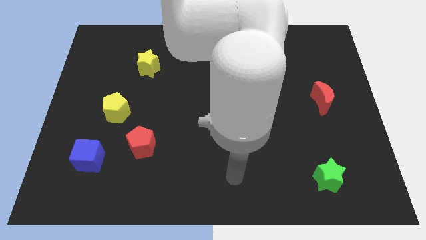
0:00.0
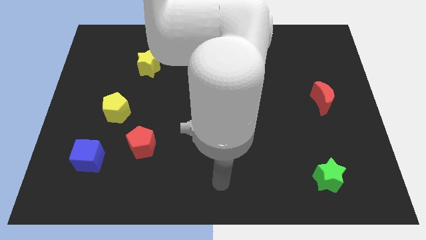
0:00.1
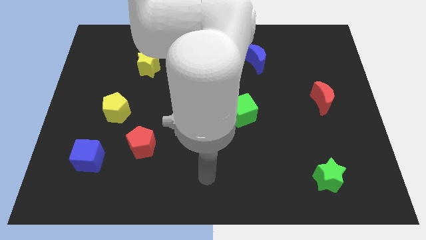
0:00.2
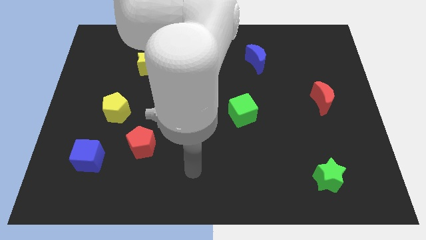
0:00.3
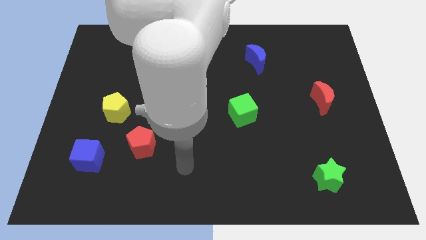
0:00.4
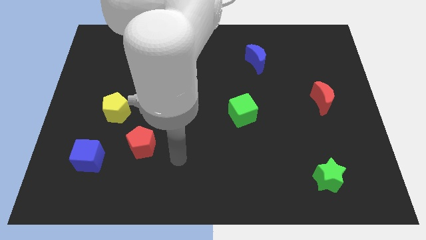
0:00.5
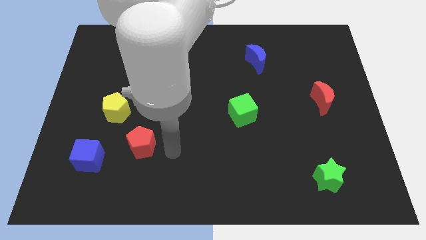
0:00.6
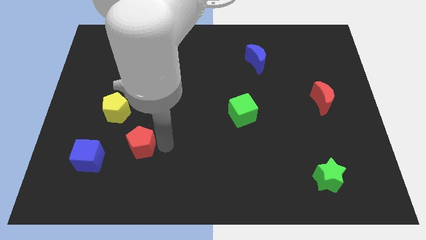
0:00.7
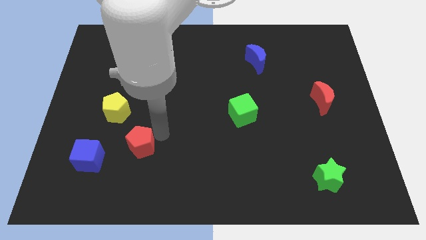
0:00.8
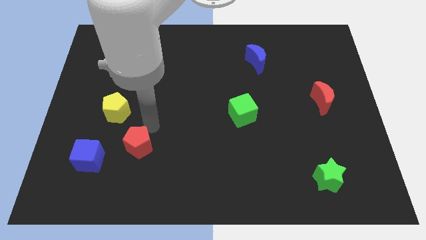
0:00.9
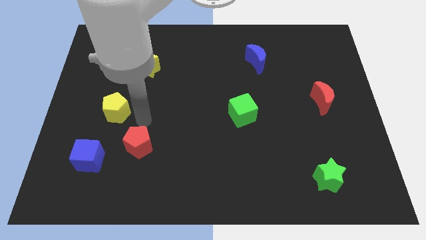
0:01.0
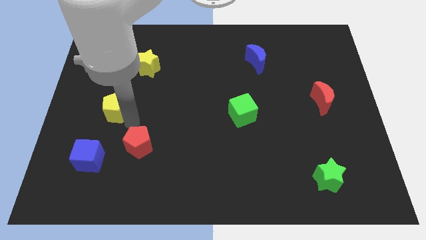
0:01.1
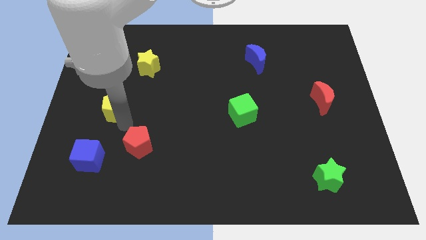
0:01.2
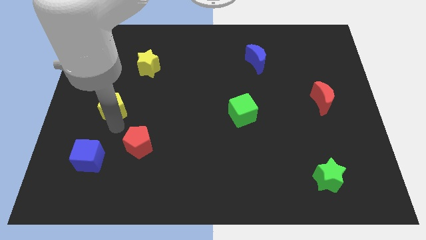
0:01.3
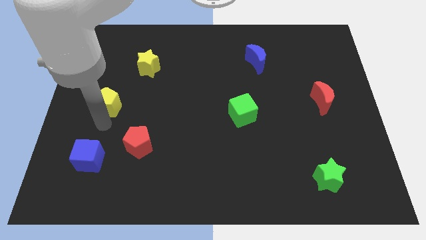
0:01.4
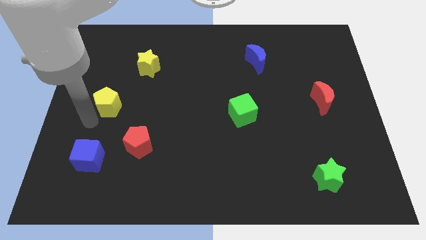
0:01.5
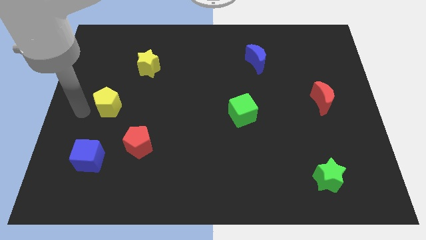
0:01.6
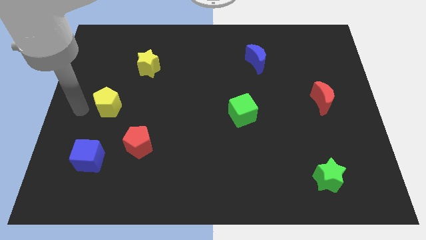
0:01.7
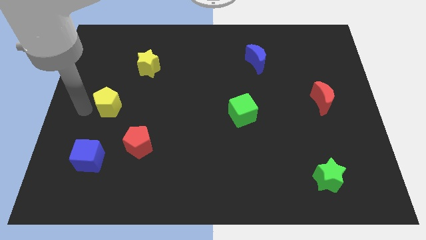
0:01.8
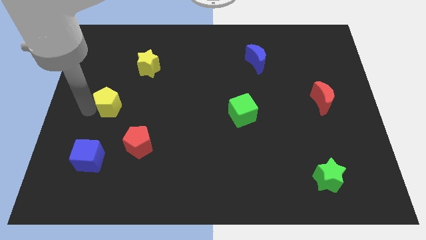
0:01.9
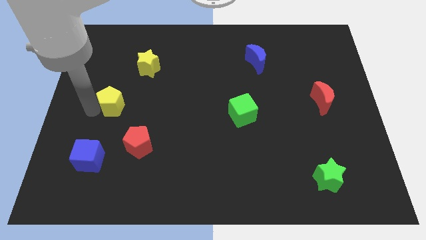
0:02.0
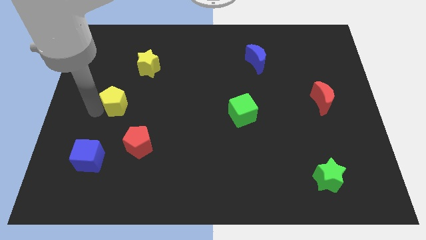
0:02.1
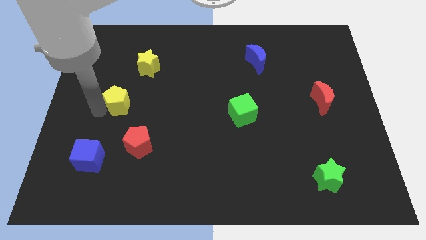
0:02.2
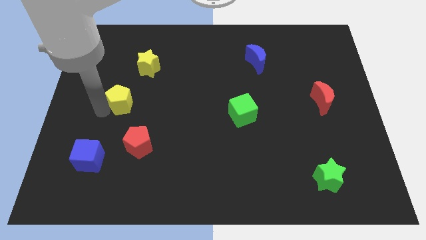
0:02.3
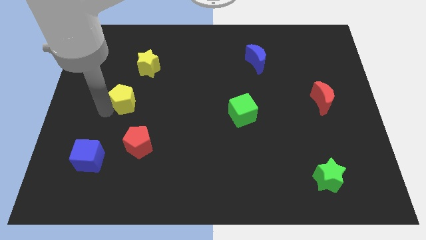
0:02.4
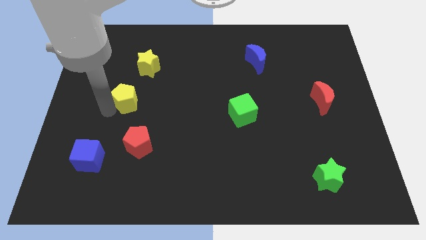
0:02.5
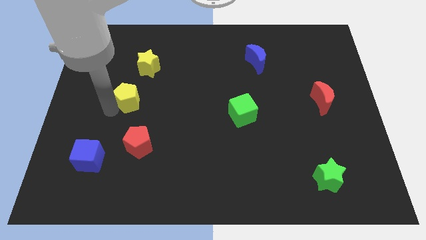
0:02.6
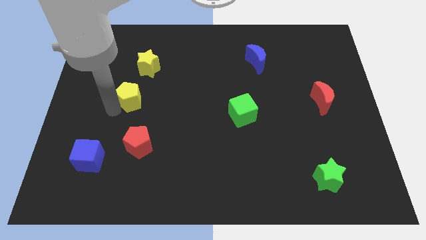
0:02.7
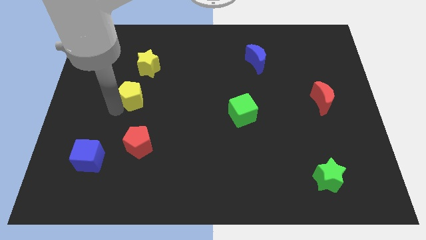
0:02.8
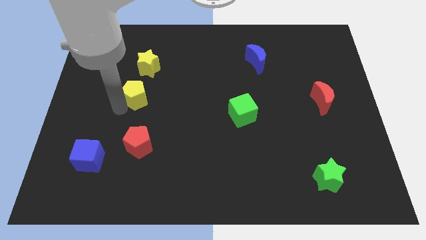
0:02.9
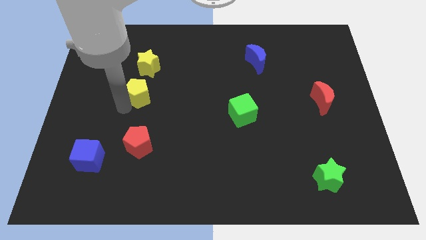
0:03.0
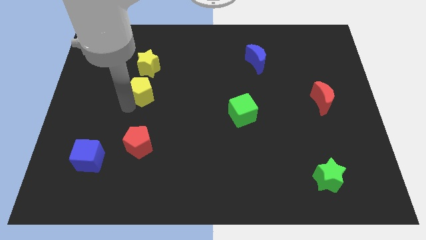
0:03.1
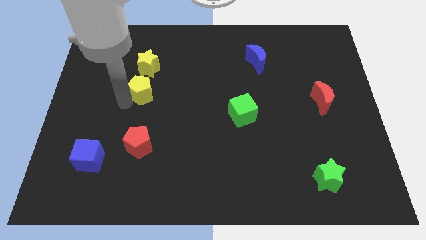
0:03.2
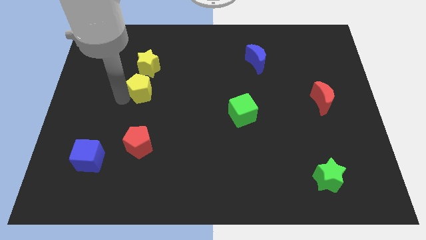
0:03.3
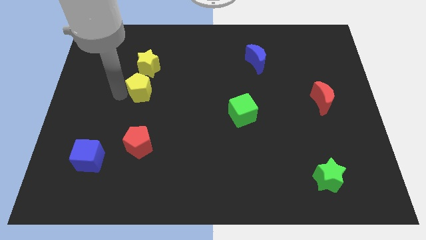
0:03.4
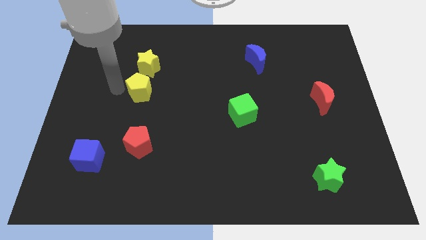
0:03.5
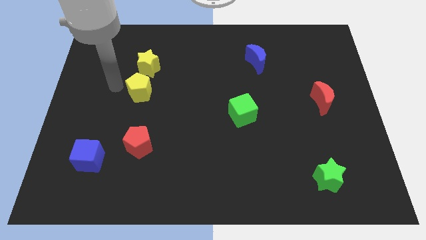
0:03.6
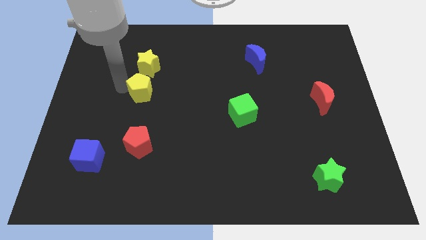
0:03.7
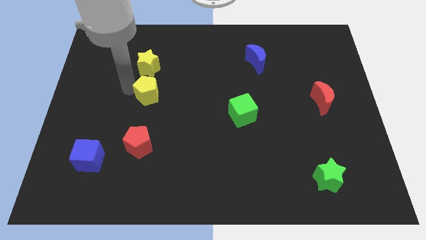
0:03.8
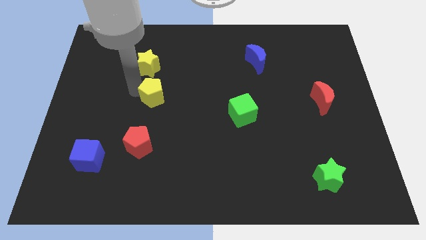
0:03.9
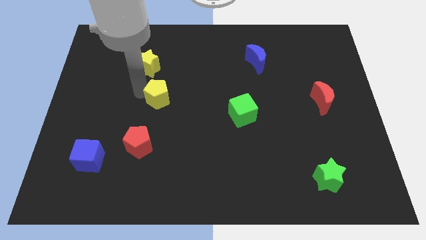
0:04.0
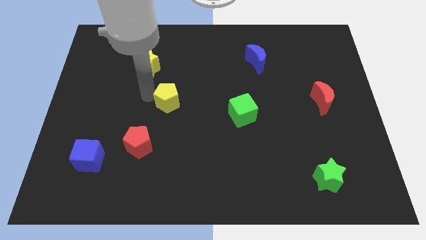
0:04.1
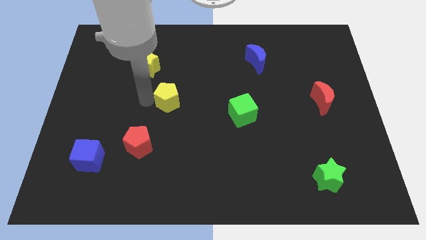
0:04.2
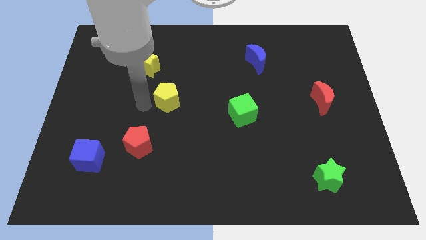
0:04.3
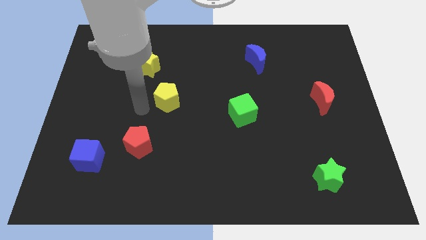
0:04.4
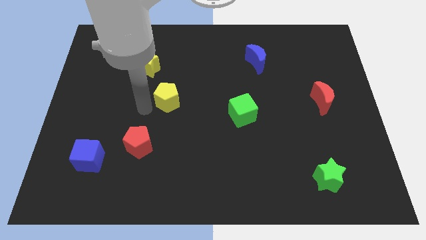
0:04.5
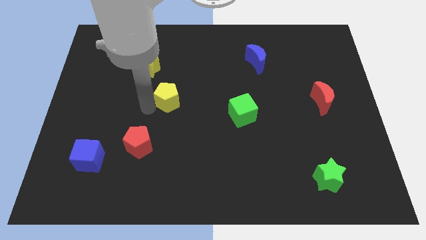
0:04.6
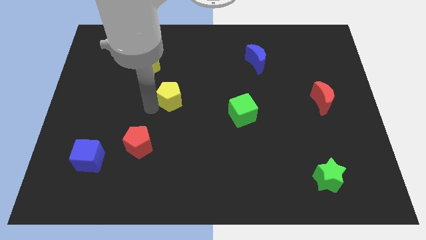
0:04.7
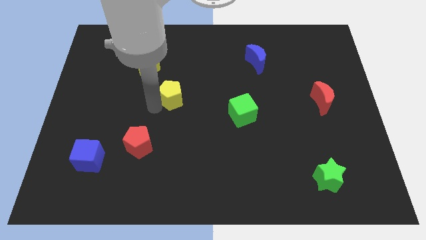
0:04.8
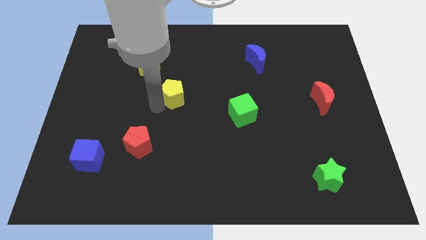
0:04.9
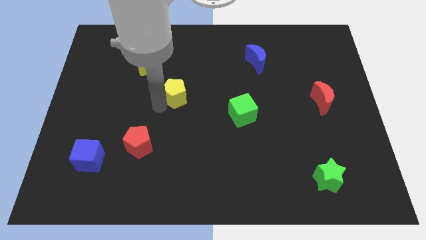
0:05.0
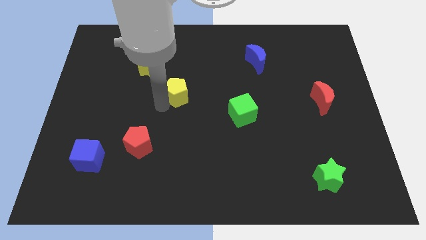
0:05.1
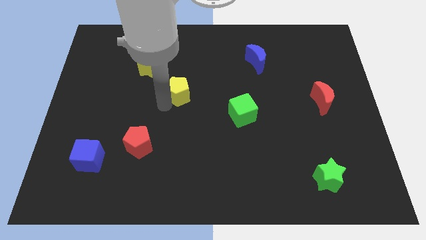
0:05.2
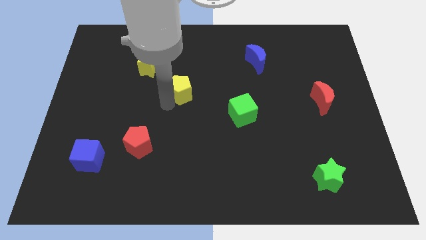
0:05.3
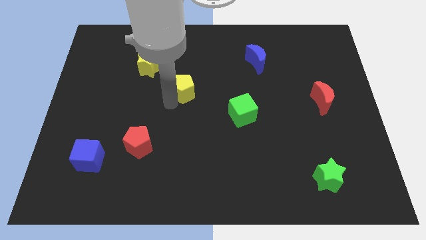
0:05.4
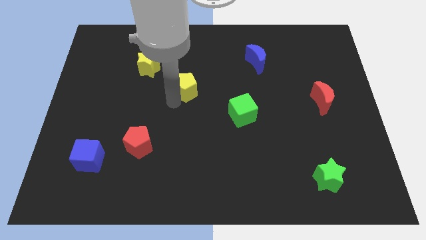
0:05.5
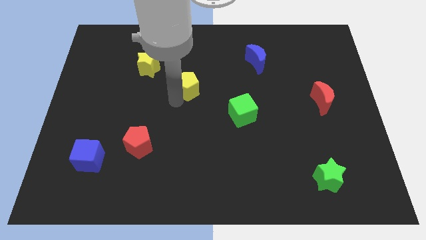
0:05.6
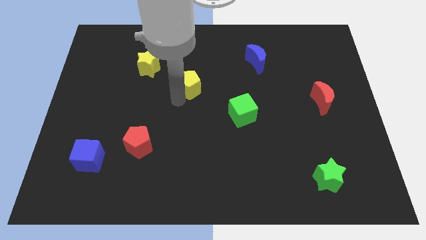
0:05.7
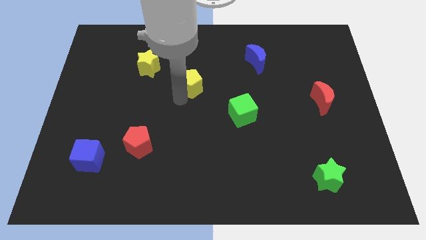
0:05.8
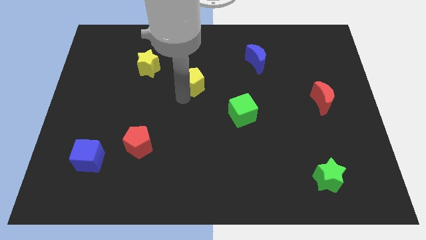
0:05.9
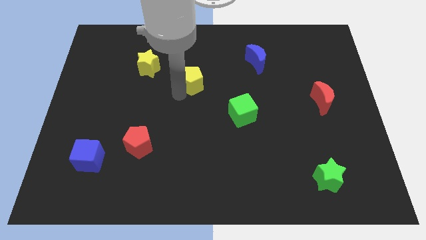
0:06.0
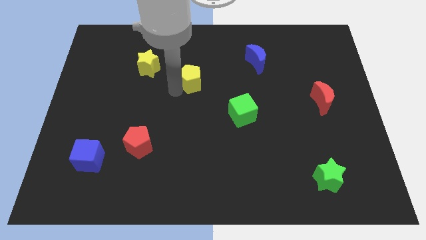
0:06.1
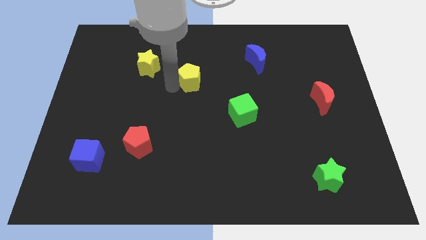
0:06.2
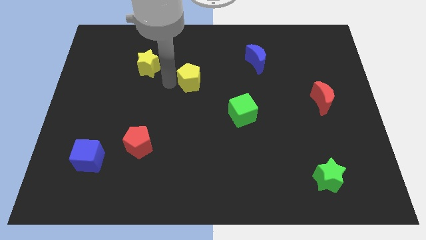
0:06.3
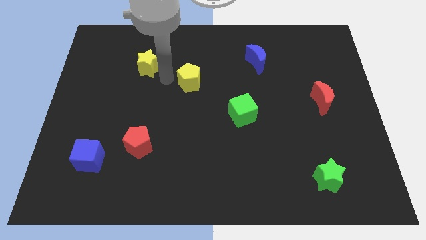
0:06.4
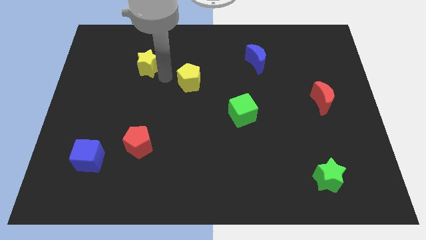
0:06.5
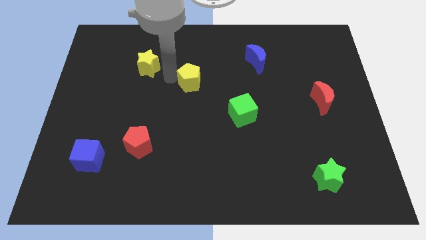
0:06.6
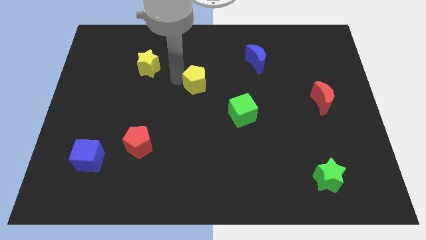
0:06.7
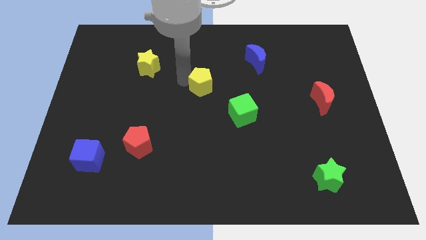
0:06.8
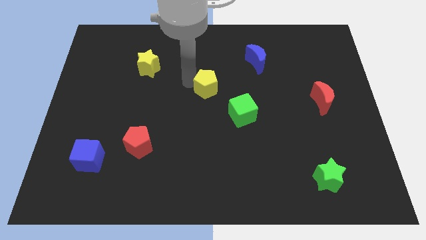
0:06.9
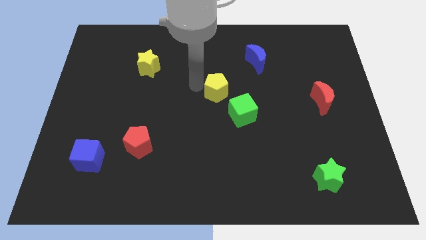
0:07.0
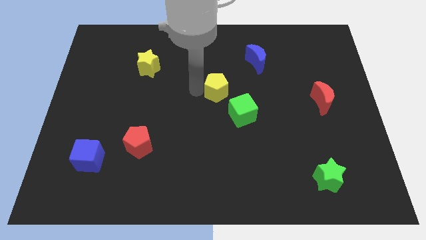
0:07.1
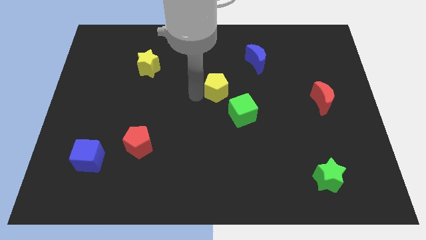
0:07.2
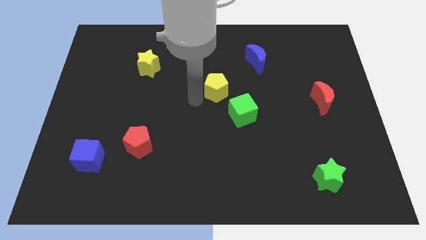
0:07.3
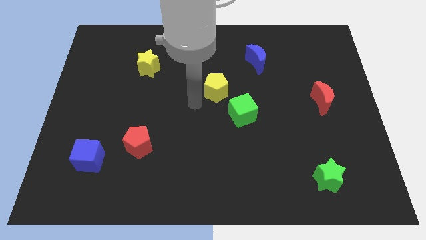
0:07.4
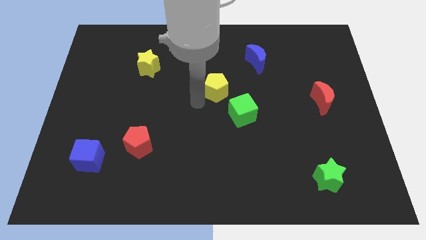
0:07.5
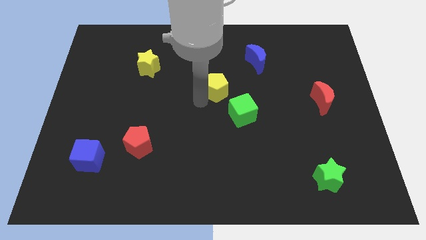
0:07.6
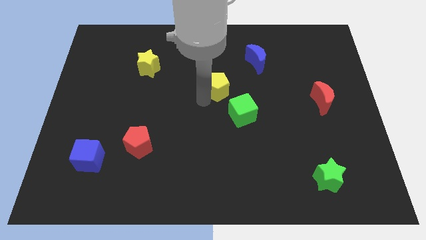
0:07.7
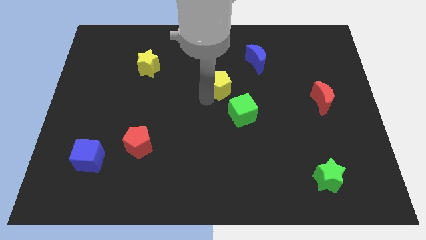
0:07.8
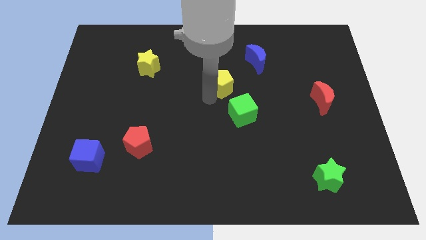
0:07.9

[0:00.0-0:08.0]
slide the yellow pentagon to the bottom left side of the blue moon

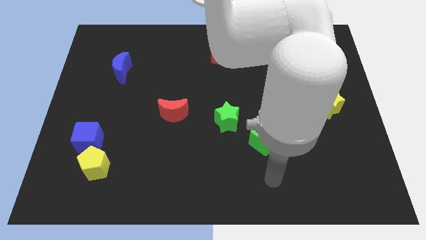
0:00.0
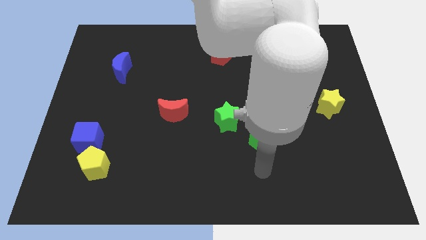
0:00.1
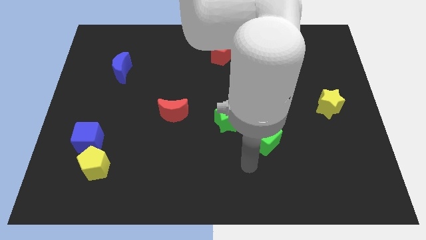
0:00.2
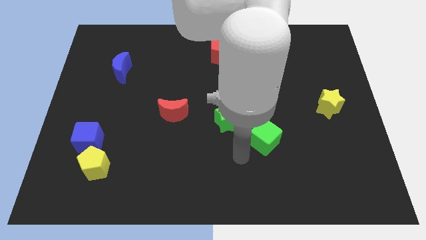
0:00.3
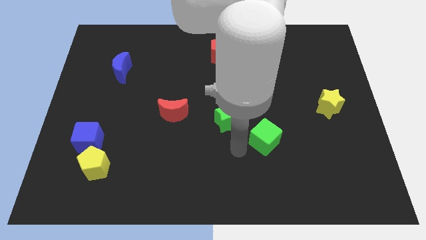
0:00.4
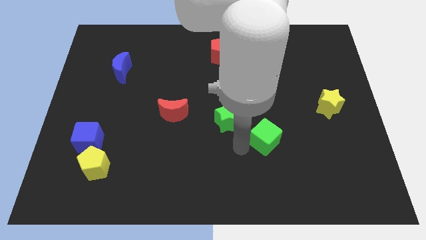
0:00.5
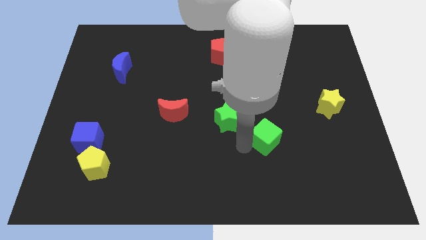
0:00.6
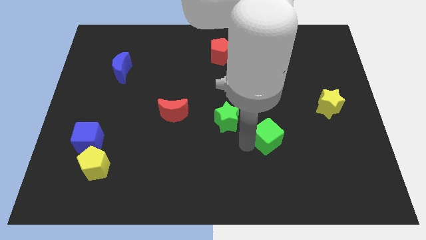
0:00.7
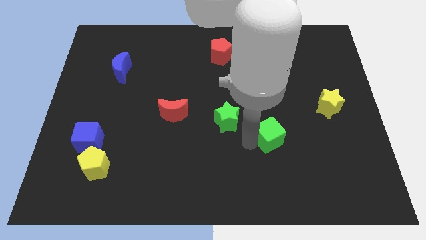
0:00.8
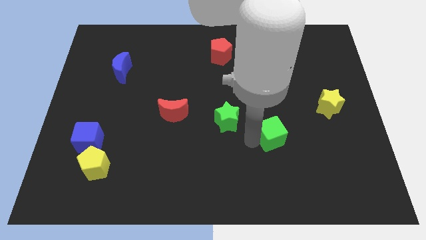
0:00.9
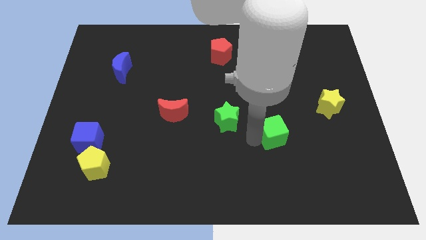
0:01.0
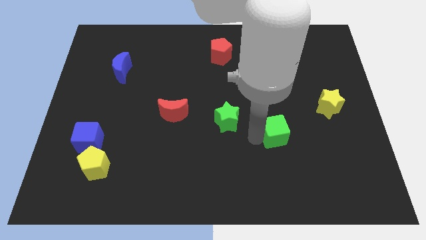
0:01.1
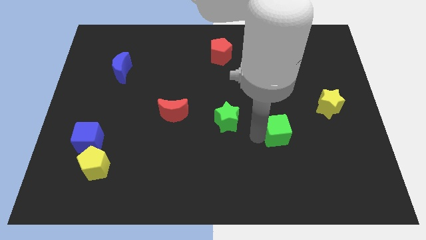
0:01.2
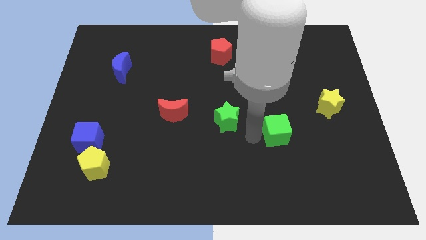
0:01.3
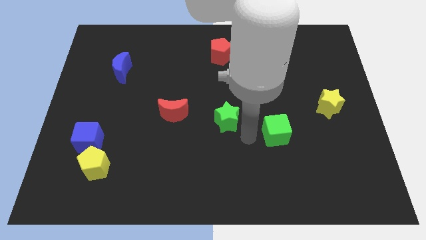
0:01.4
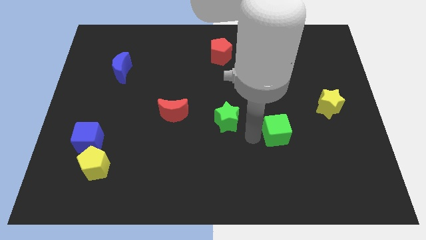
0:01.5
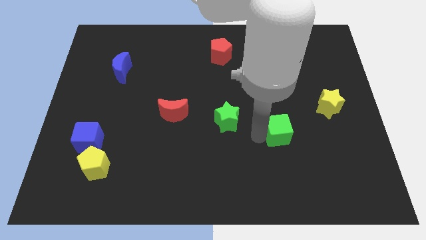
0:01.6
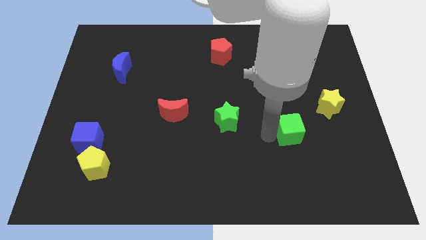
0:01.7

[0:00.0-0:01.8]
put the green cube to the bottom left of the yellow star
